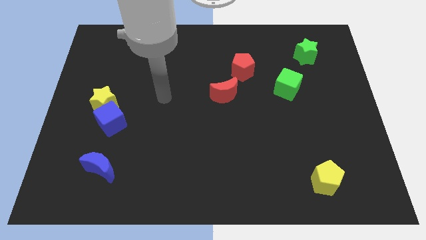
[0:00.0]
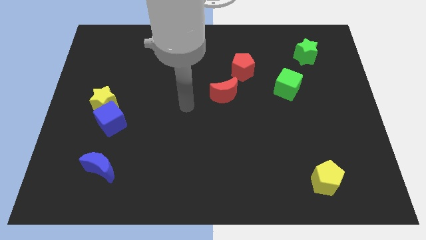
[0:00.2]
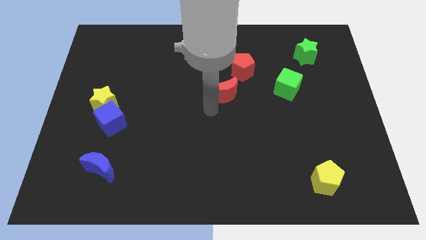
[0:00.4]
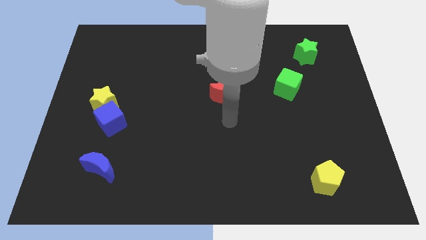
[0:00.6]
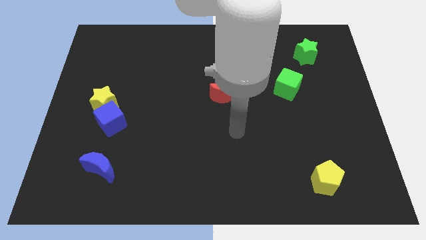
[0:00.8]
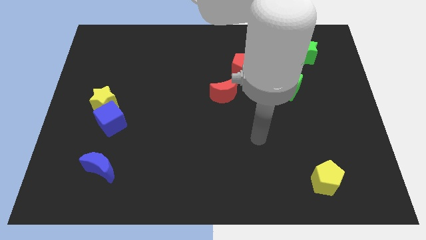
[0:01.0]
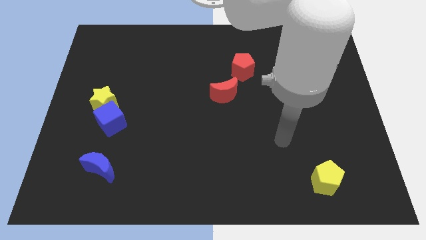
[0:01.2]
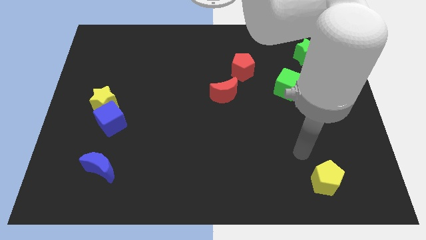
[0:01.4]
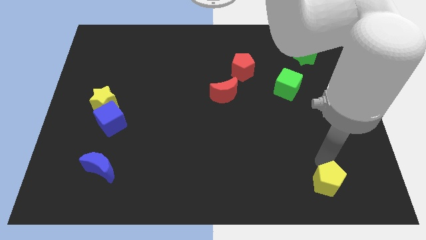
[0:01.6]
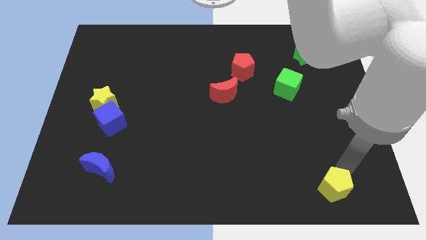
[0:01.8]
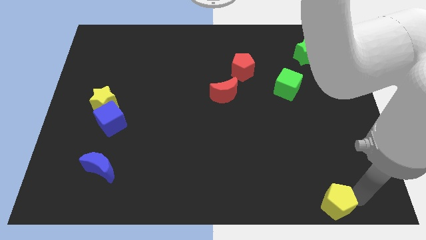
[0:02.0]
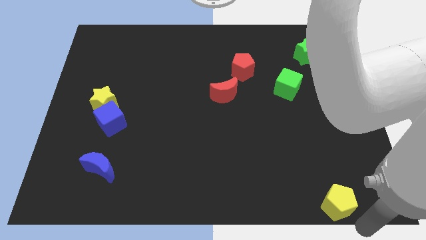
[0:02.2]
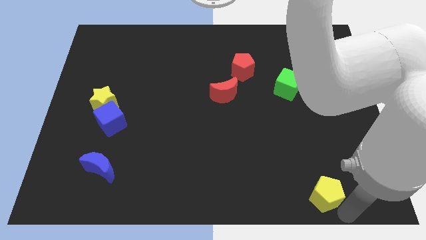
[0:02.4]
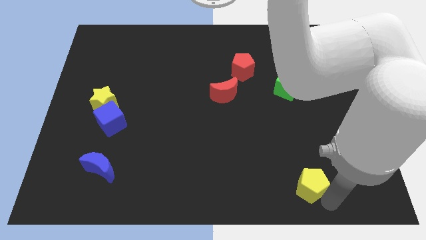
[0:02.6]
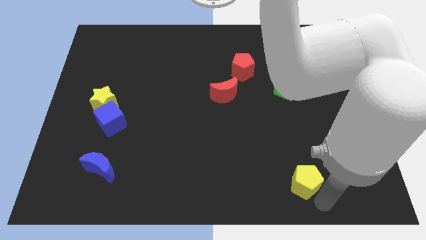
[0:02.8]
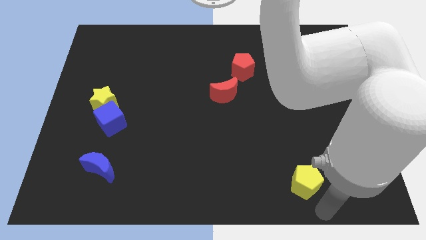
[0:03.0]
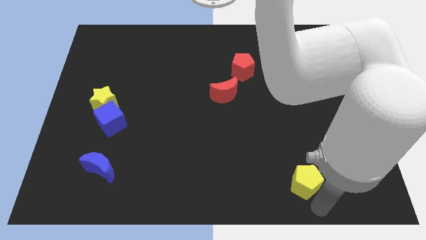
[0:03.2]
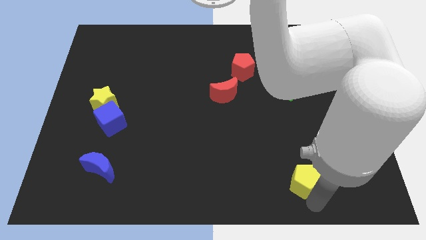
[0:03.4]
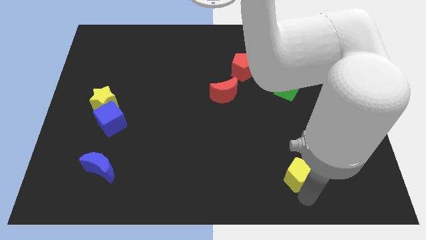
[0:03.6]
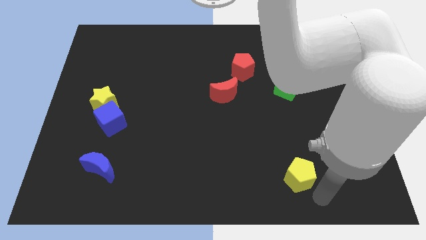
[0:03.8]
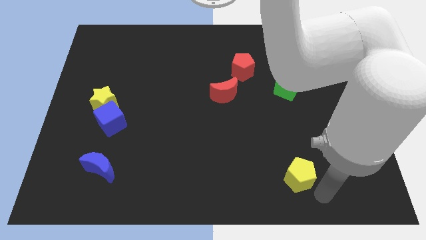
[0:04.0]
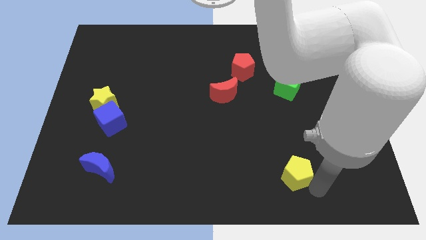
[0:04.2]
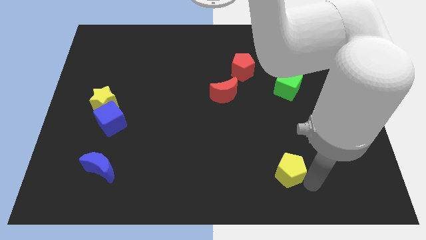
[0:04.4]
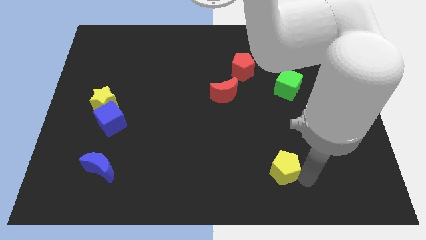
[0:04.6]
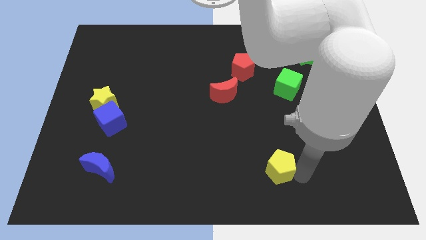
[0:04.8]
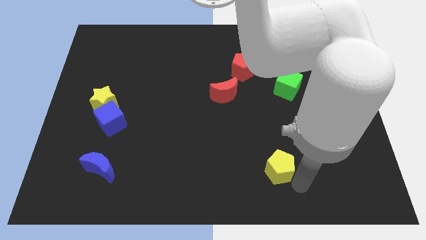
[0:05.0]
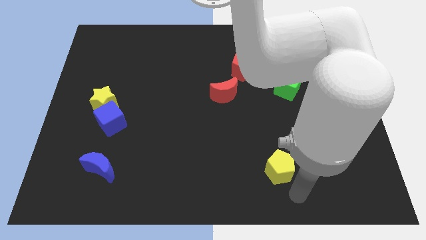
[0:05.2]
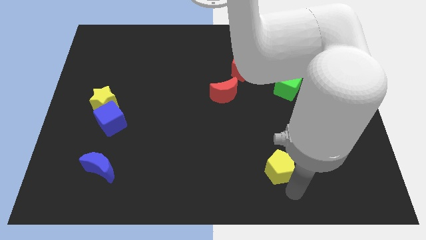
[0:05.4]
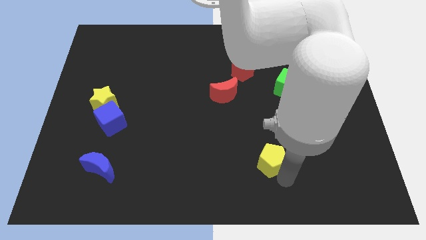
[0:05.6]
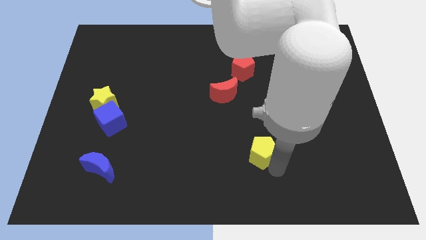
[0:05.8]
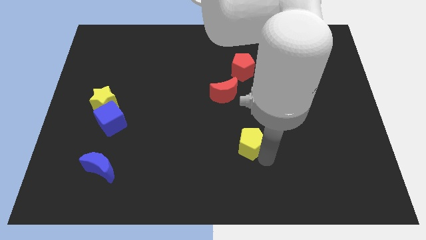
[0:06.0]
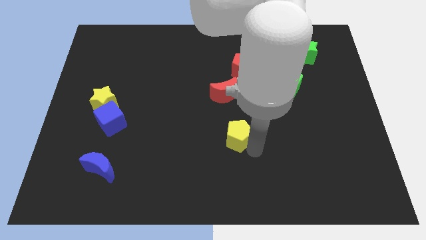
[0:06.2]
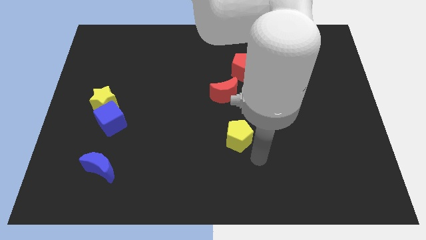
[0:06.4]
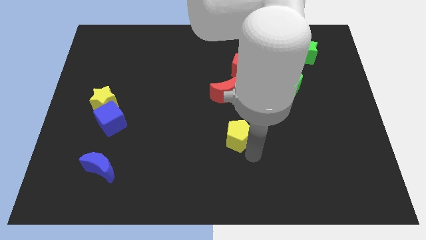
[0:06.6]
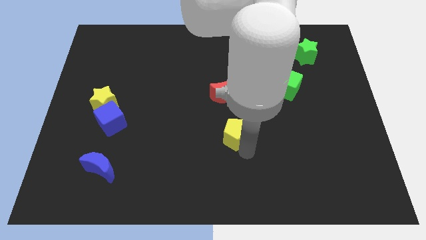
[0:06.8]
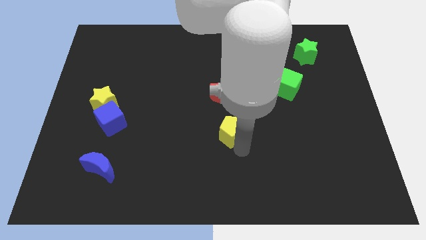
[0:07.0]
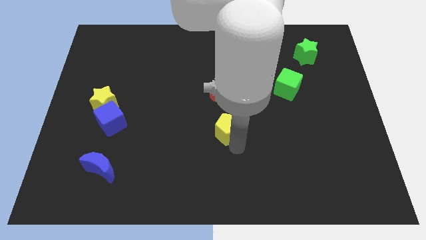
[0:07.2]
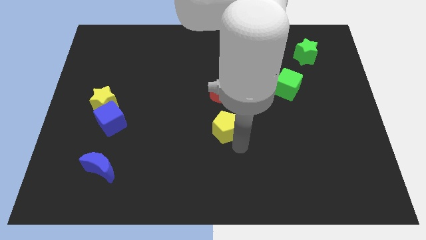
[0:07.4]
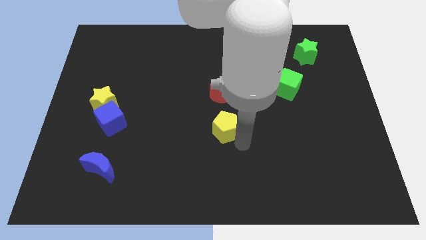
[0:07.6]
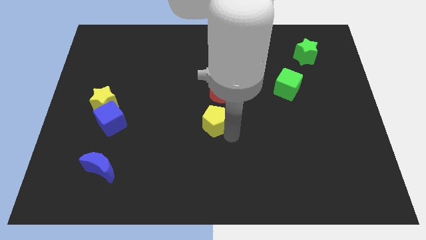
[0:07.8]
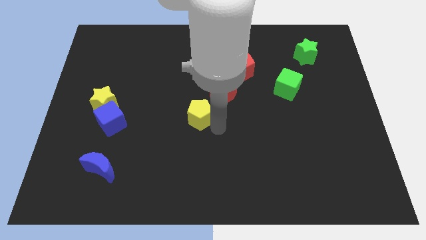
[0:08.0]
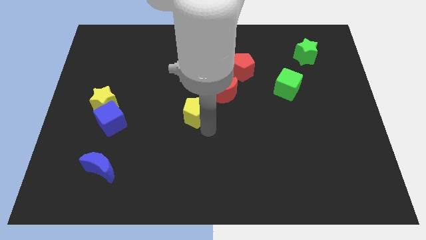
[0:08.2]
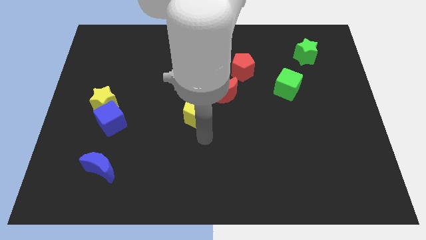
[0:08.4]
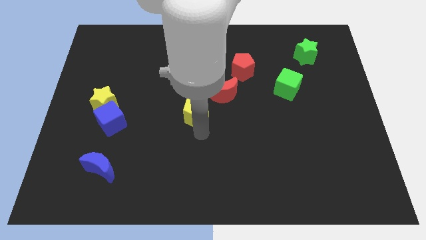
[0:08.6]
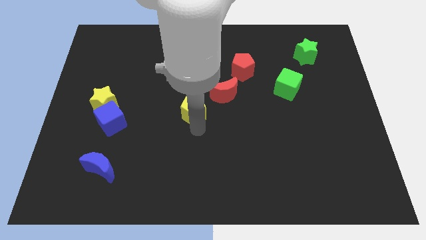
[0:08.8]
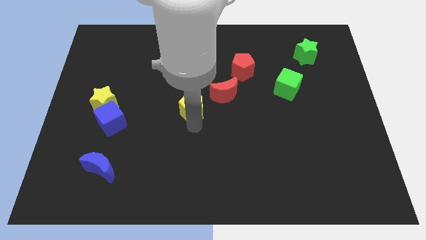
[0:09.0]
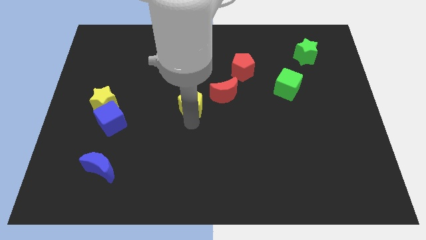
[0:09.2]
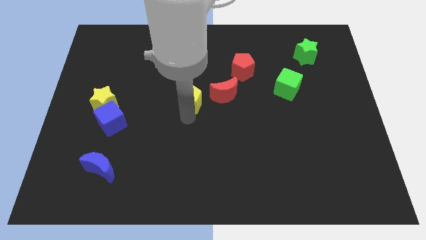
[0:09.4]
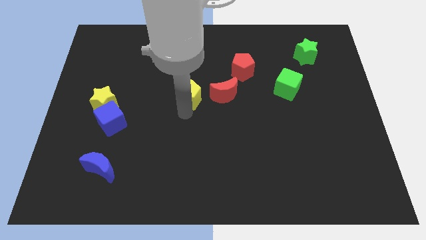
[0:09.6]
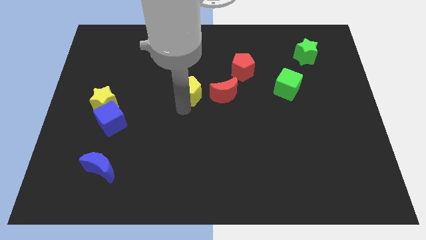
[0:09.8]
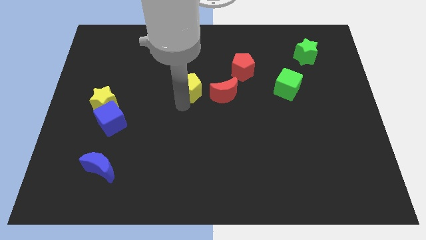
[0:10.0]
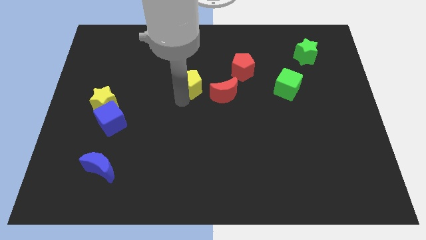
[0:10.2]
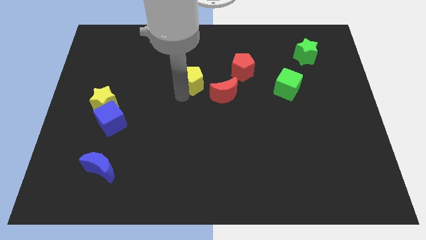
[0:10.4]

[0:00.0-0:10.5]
put the yellow pentagon left of the red pentagon

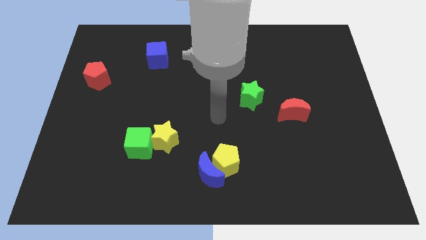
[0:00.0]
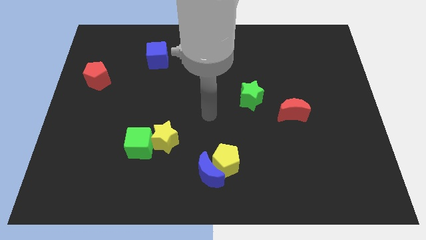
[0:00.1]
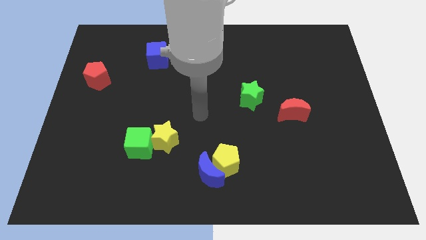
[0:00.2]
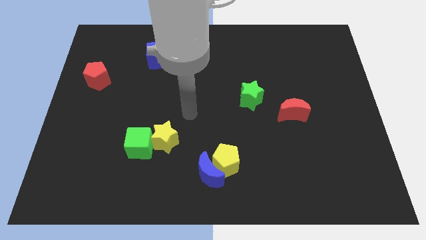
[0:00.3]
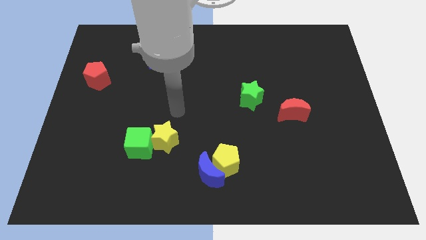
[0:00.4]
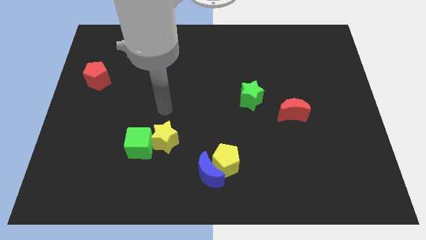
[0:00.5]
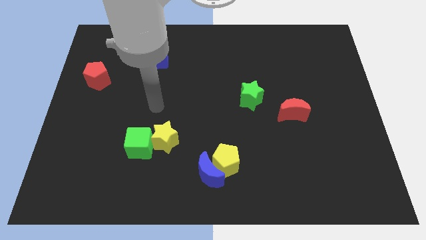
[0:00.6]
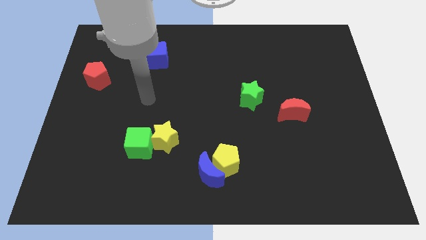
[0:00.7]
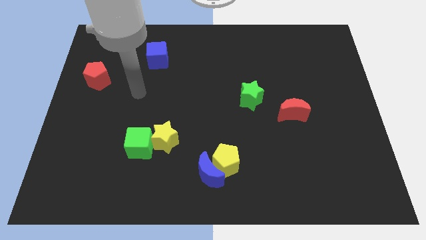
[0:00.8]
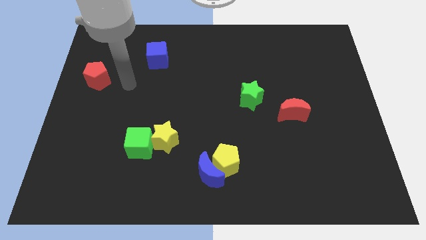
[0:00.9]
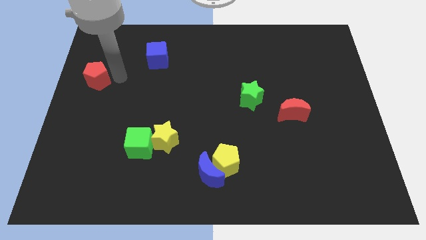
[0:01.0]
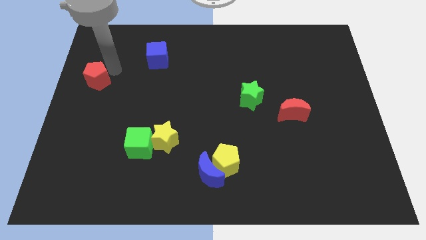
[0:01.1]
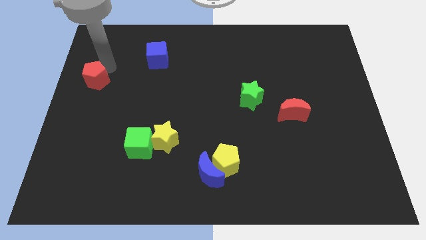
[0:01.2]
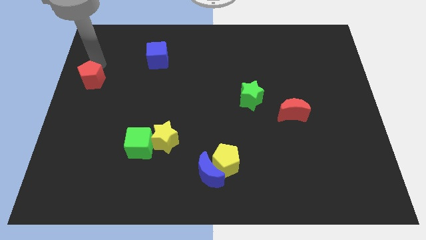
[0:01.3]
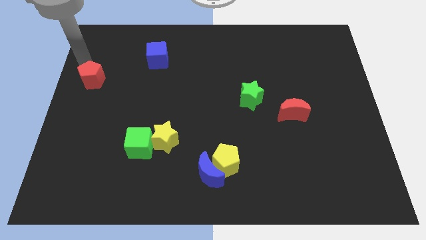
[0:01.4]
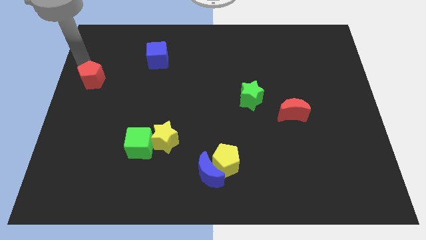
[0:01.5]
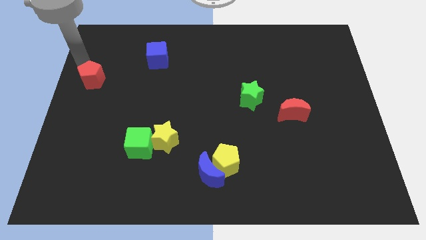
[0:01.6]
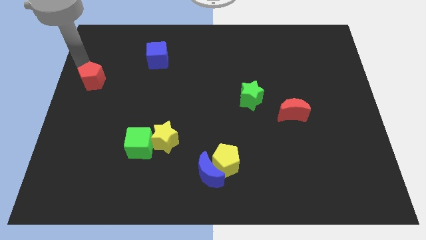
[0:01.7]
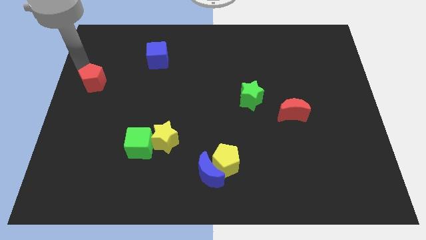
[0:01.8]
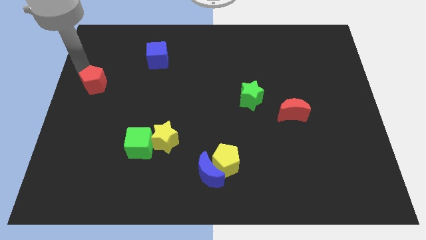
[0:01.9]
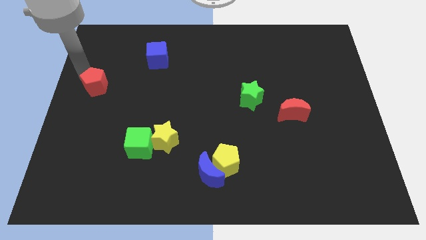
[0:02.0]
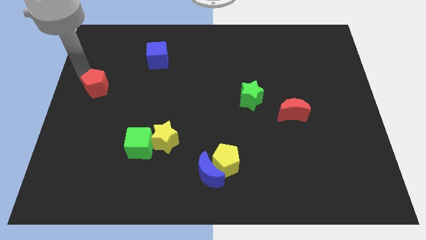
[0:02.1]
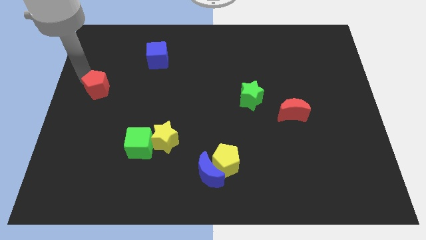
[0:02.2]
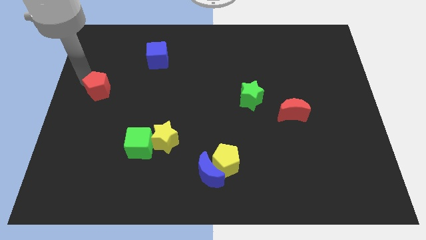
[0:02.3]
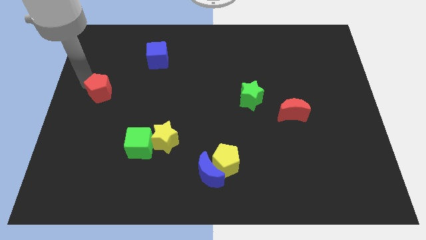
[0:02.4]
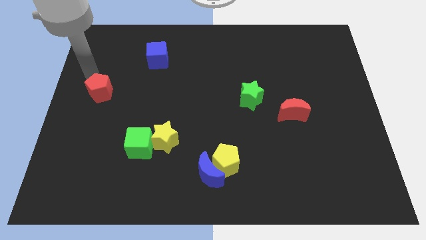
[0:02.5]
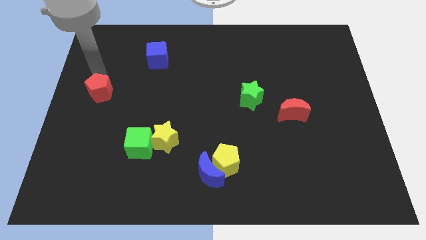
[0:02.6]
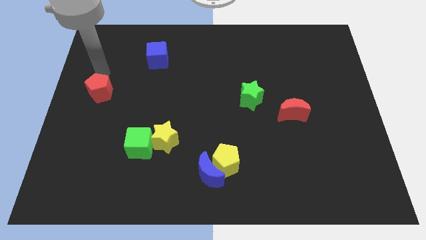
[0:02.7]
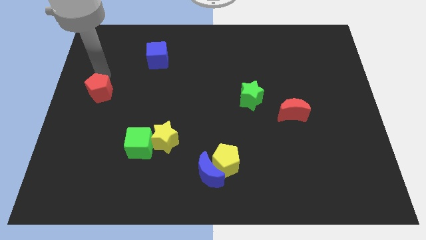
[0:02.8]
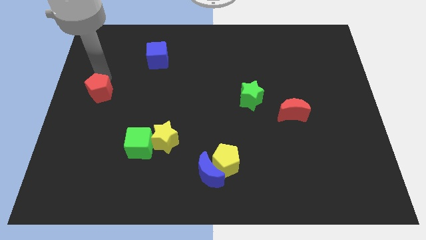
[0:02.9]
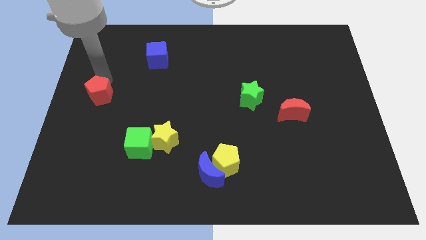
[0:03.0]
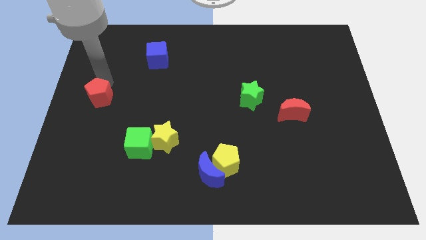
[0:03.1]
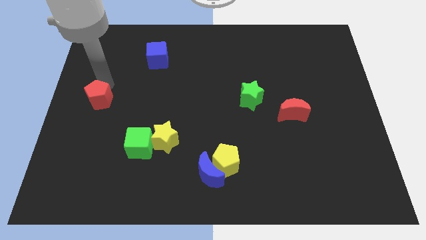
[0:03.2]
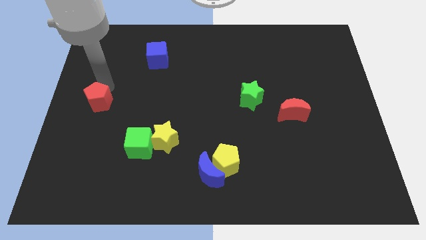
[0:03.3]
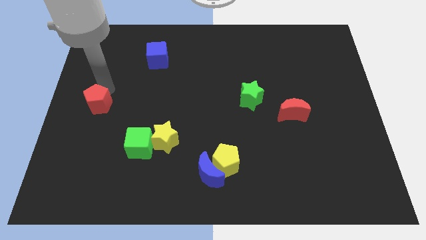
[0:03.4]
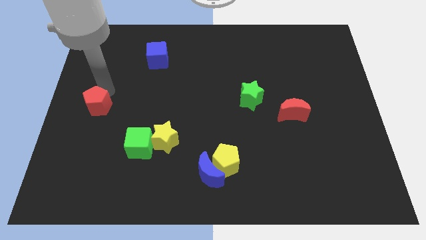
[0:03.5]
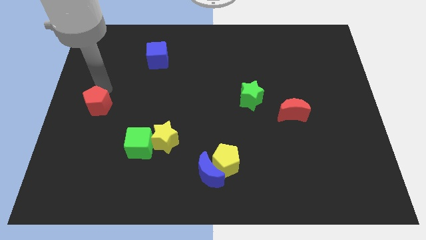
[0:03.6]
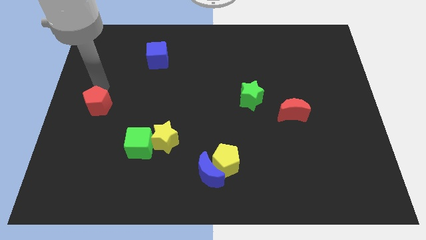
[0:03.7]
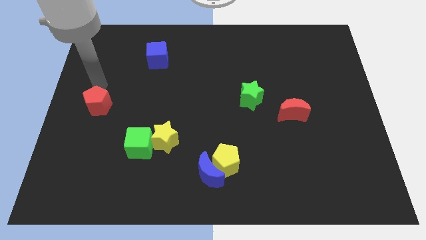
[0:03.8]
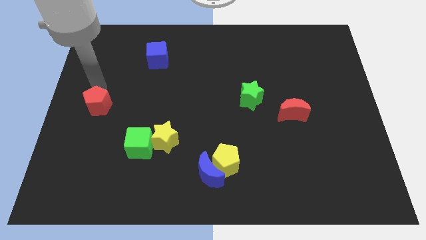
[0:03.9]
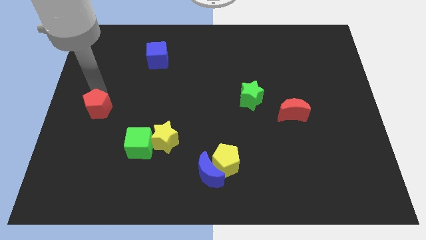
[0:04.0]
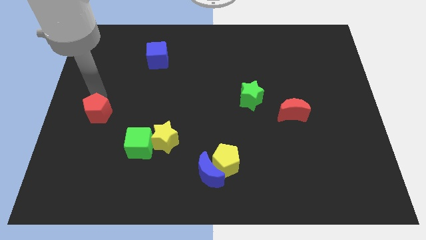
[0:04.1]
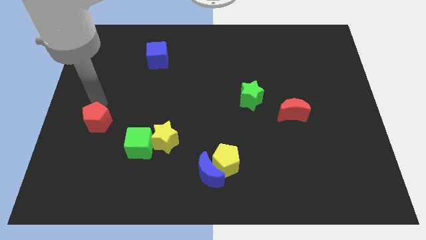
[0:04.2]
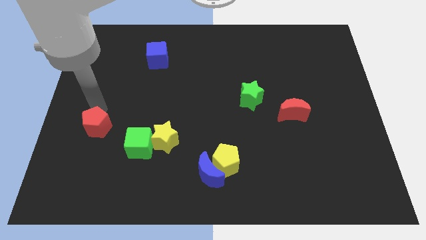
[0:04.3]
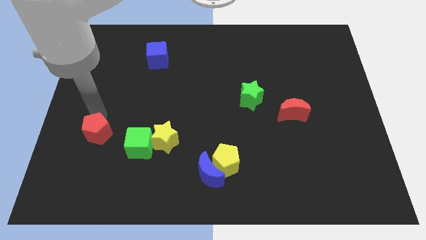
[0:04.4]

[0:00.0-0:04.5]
put the red pentagon just left of the green cube
